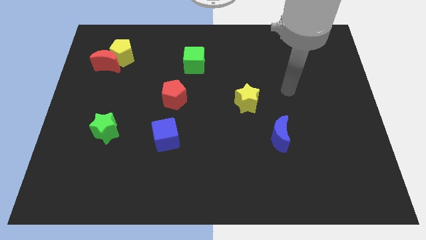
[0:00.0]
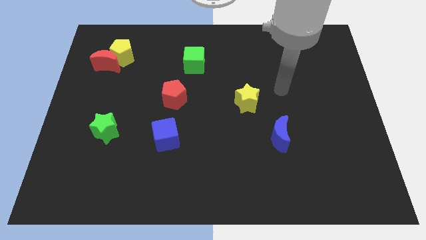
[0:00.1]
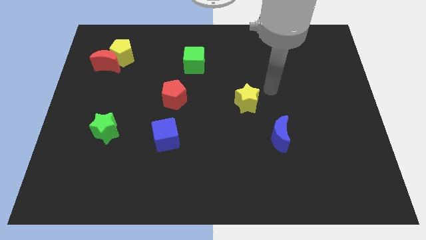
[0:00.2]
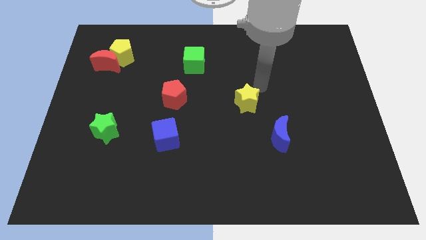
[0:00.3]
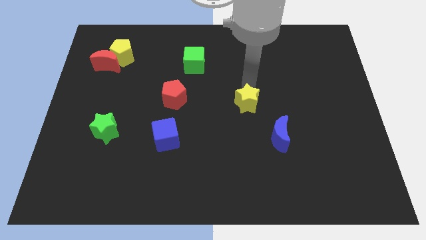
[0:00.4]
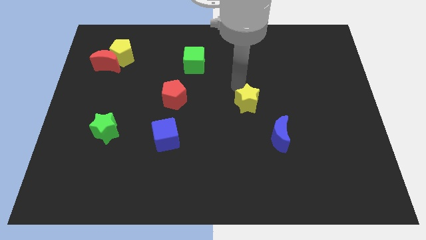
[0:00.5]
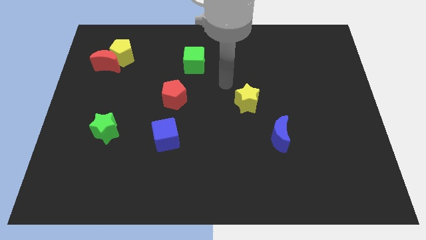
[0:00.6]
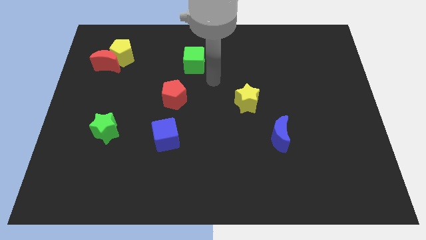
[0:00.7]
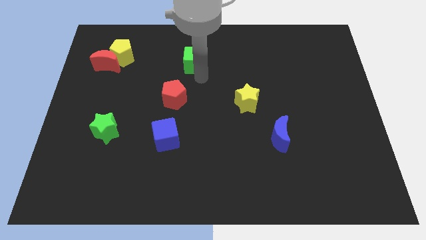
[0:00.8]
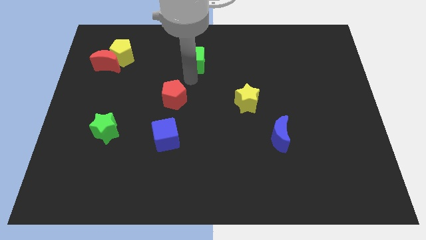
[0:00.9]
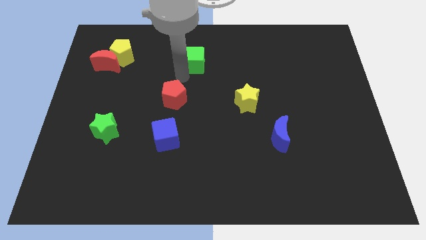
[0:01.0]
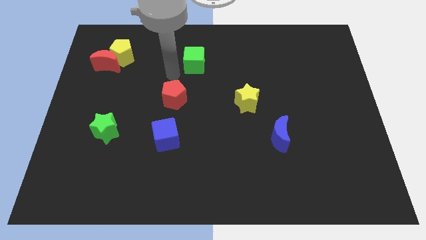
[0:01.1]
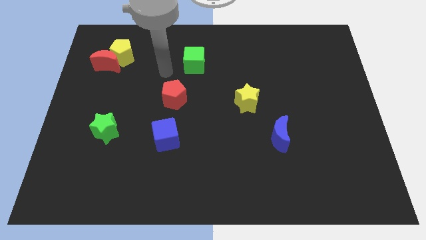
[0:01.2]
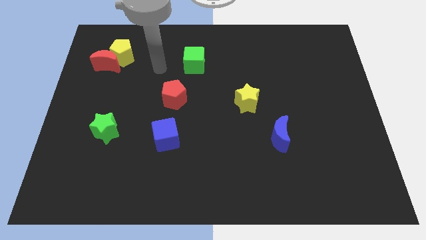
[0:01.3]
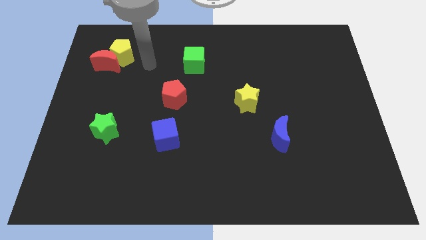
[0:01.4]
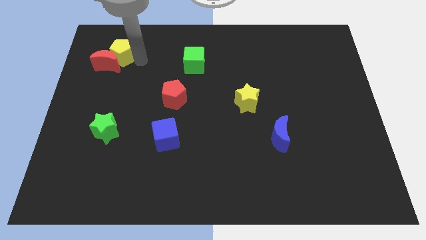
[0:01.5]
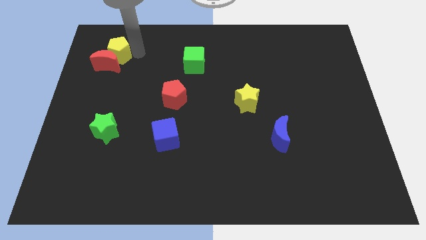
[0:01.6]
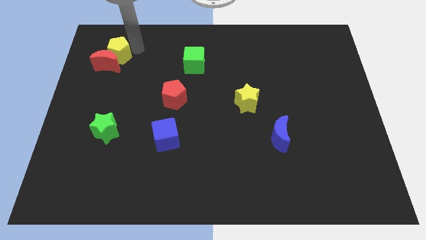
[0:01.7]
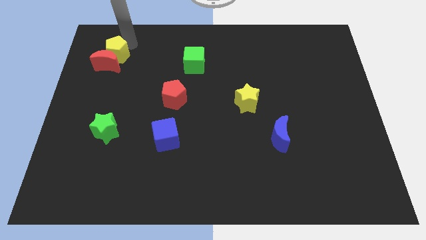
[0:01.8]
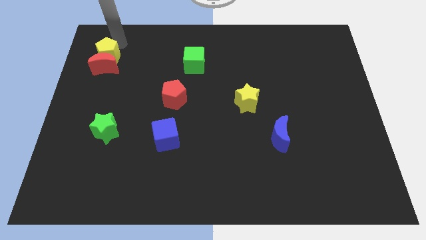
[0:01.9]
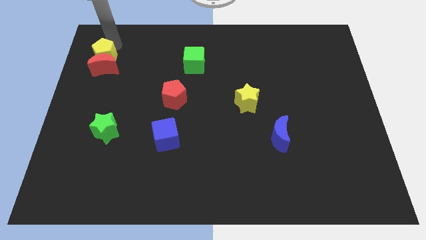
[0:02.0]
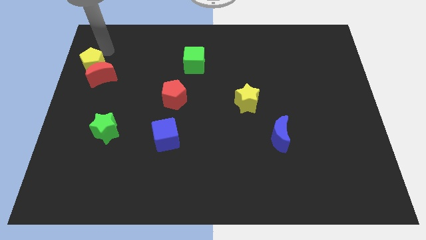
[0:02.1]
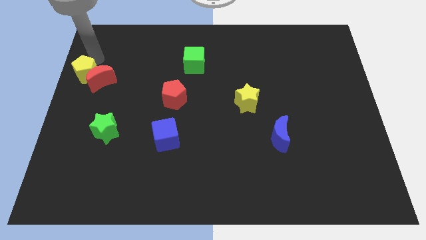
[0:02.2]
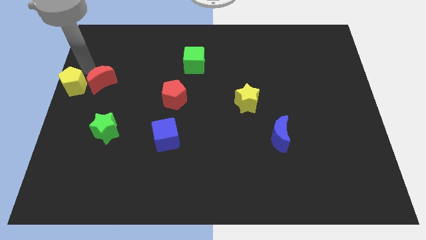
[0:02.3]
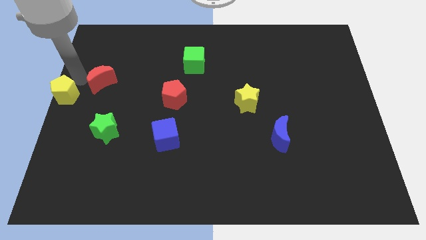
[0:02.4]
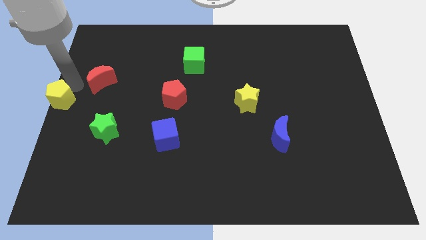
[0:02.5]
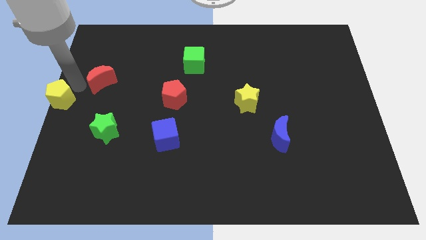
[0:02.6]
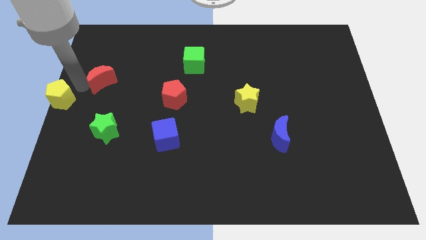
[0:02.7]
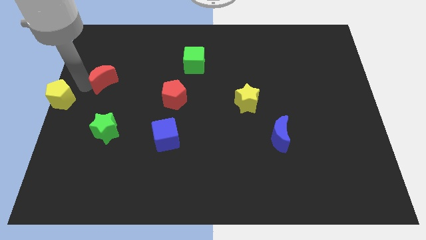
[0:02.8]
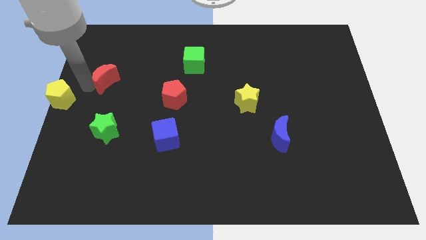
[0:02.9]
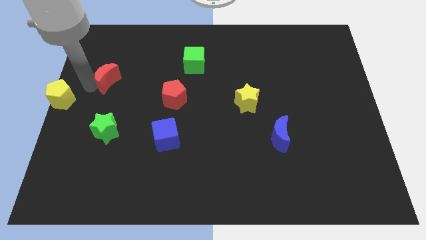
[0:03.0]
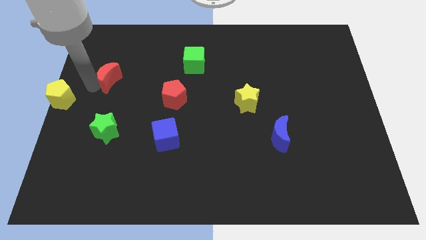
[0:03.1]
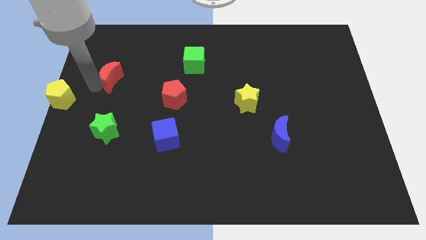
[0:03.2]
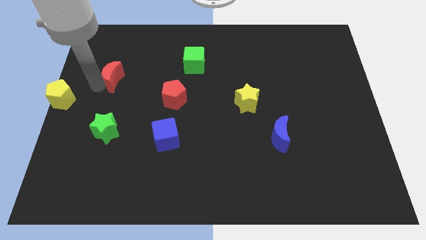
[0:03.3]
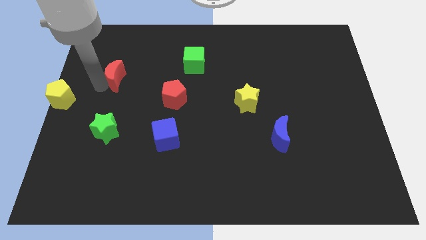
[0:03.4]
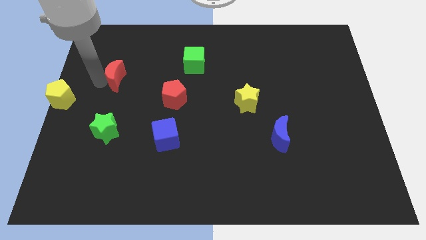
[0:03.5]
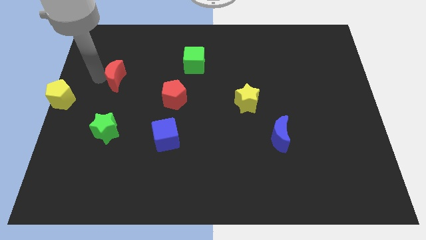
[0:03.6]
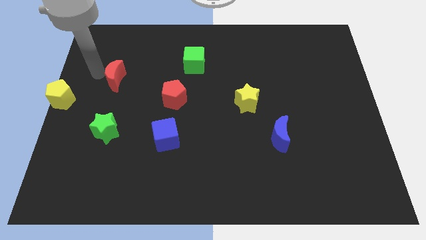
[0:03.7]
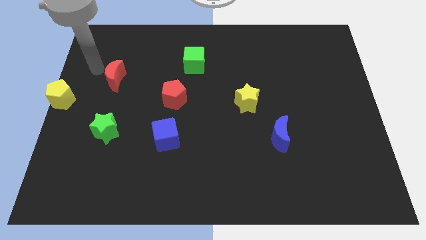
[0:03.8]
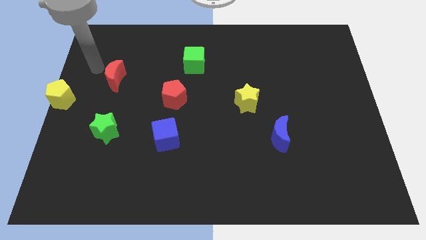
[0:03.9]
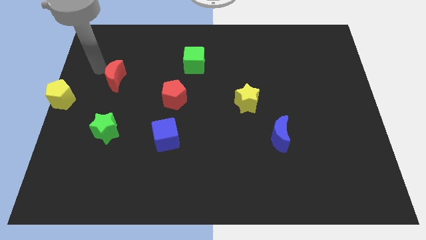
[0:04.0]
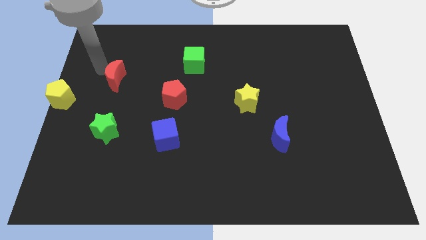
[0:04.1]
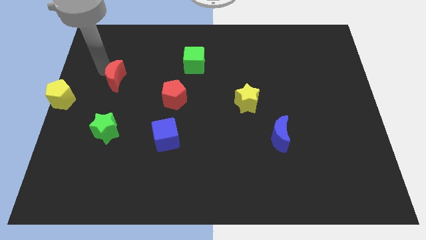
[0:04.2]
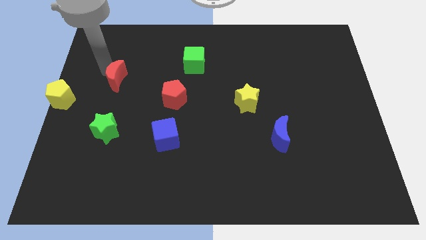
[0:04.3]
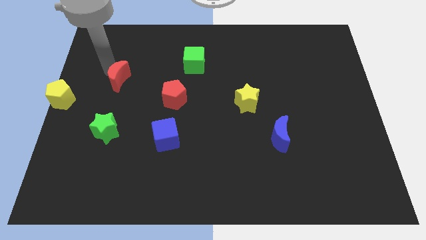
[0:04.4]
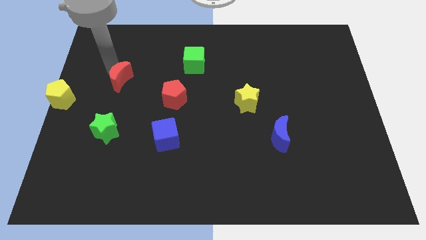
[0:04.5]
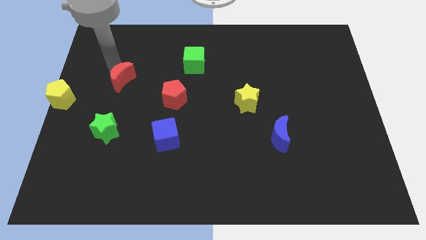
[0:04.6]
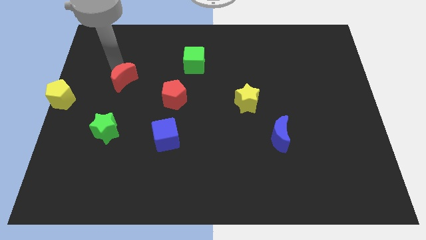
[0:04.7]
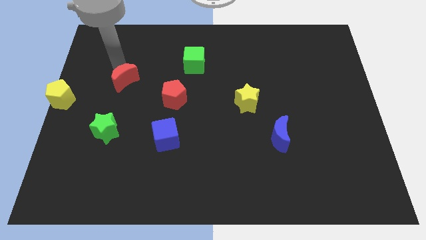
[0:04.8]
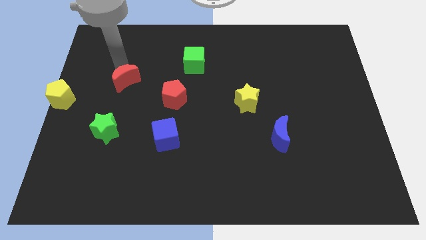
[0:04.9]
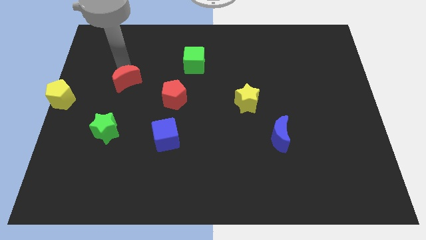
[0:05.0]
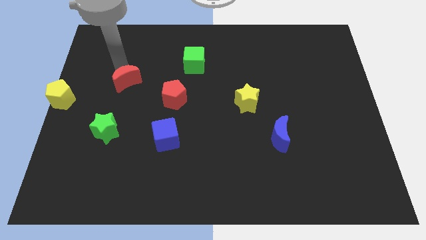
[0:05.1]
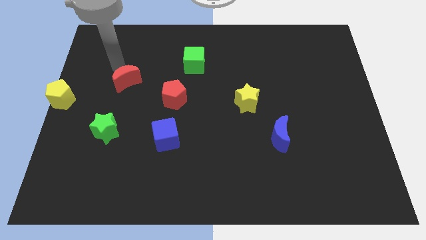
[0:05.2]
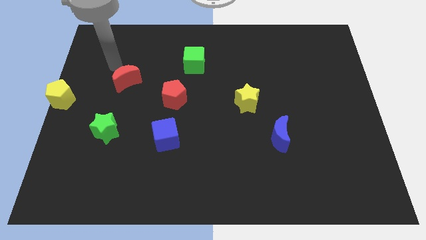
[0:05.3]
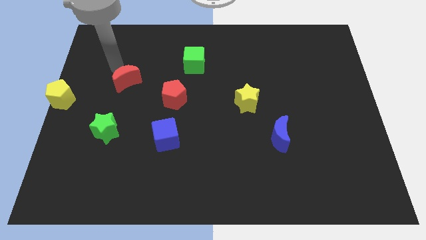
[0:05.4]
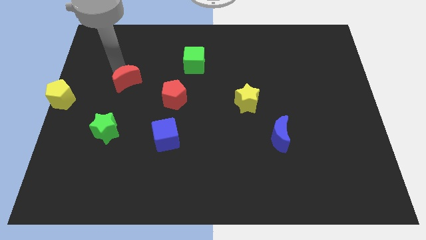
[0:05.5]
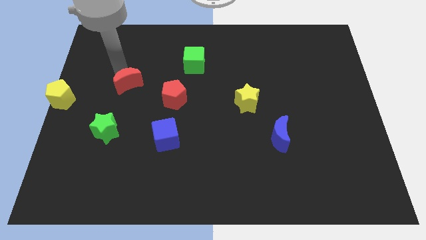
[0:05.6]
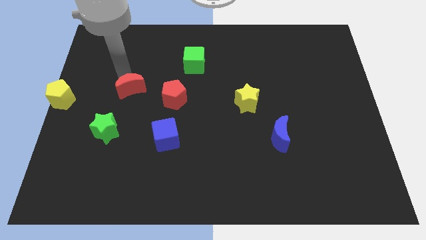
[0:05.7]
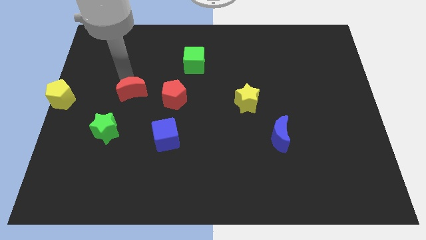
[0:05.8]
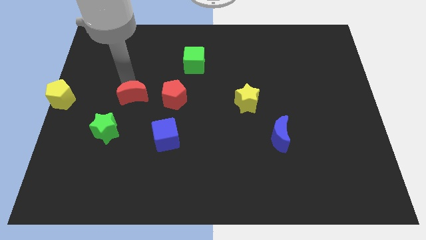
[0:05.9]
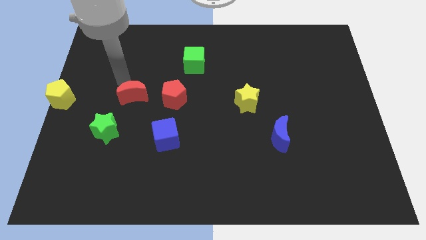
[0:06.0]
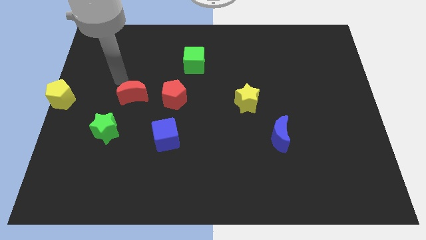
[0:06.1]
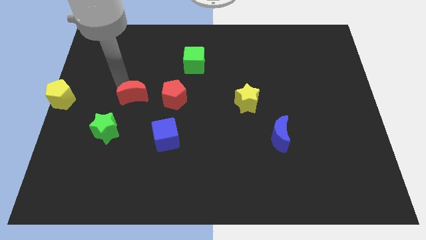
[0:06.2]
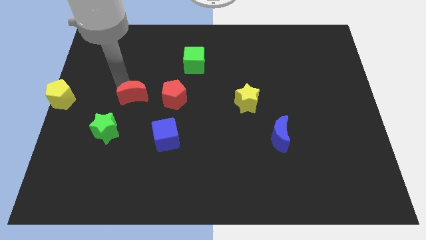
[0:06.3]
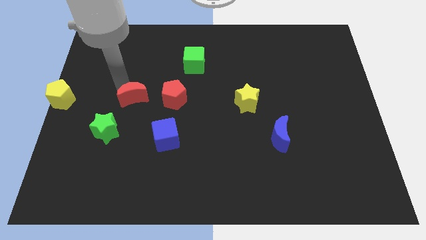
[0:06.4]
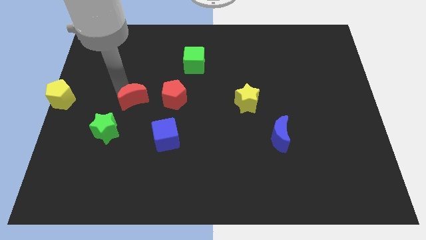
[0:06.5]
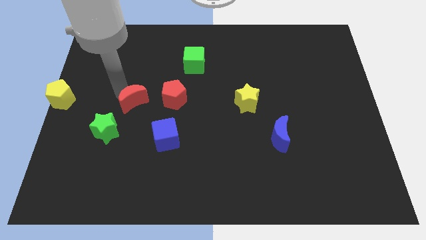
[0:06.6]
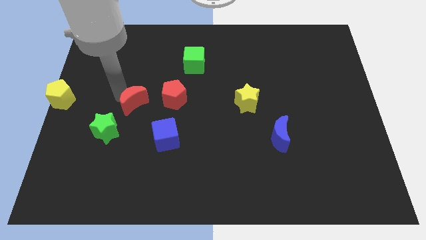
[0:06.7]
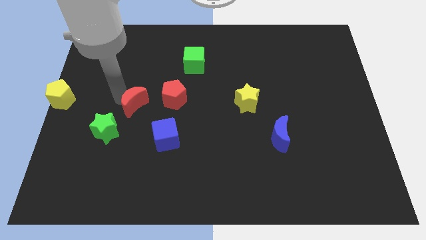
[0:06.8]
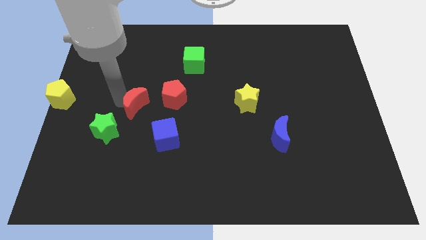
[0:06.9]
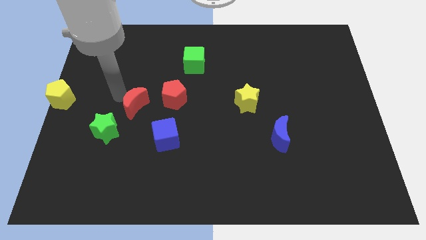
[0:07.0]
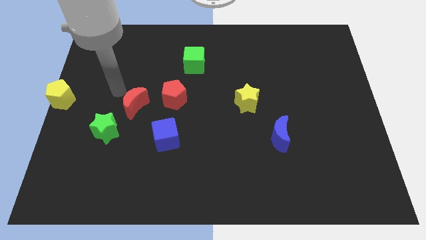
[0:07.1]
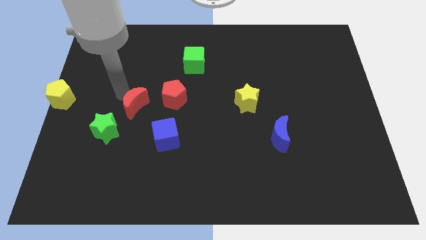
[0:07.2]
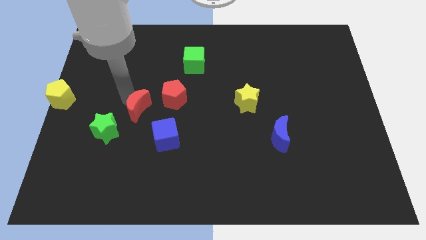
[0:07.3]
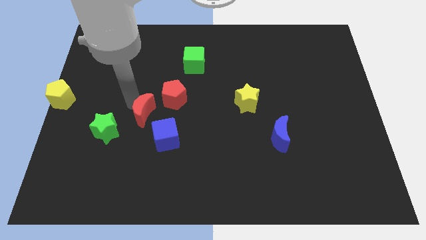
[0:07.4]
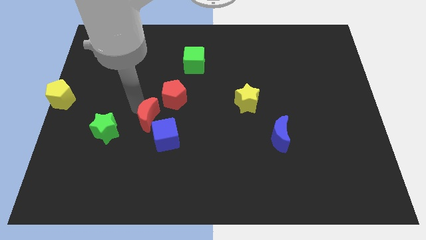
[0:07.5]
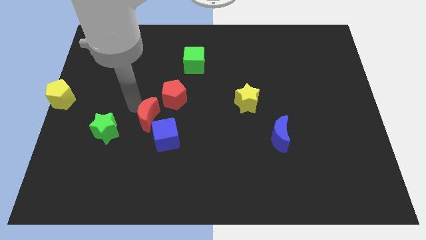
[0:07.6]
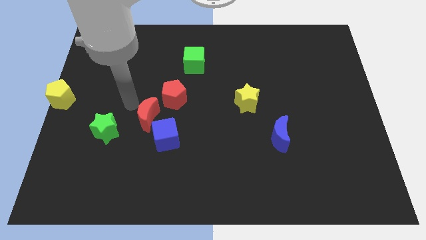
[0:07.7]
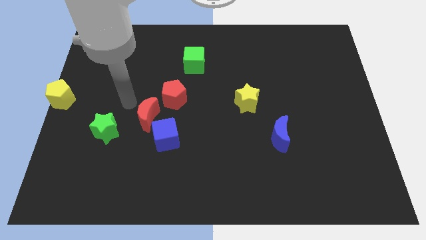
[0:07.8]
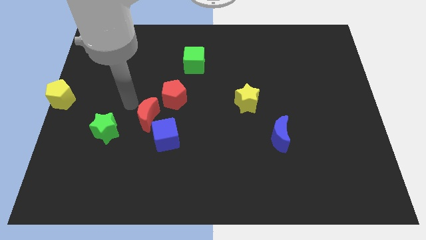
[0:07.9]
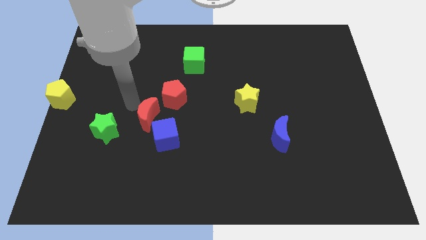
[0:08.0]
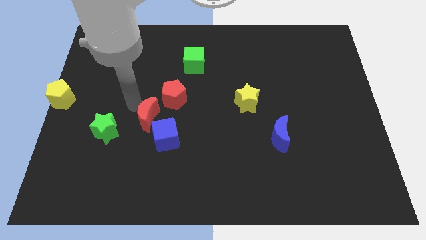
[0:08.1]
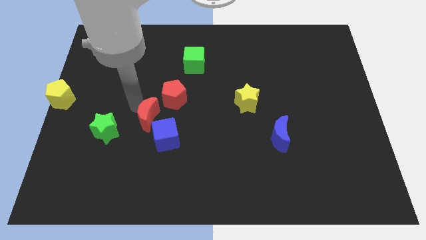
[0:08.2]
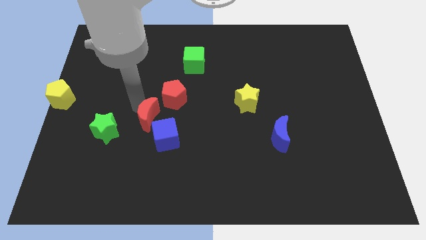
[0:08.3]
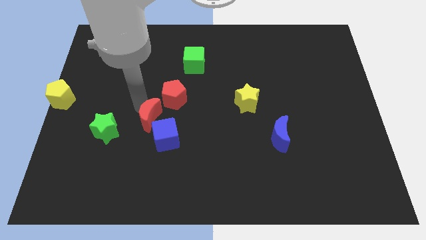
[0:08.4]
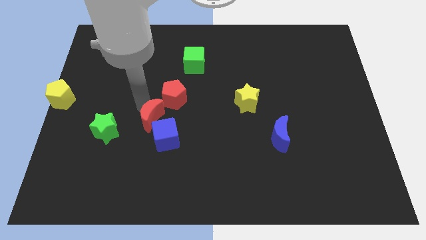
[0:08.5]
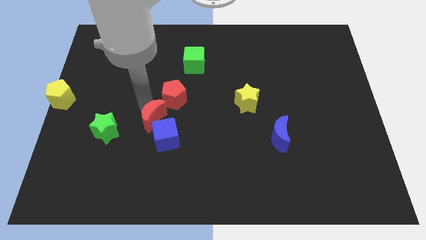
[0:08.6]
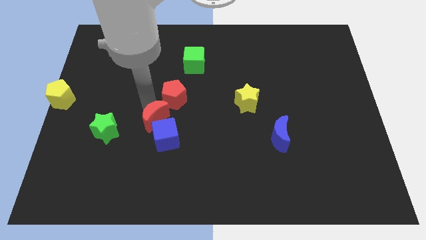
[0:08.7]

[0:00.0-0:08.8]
put the red moon close to the blue cube
